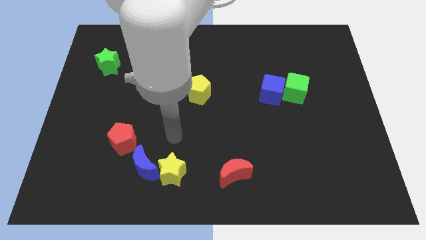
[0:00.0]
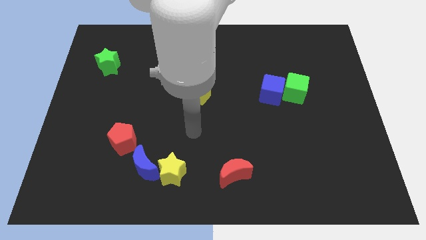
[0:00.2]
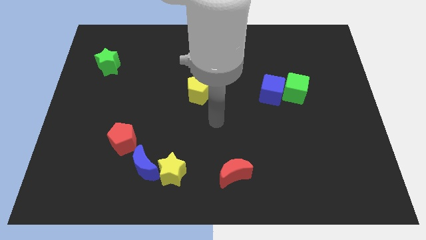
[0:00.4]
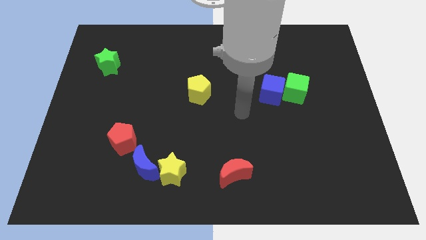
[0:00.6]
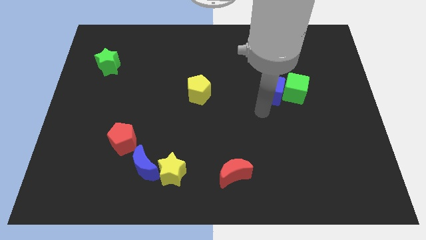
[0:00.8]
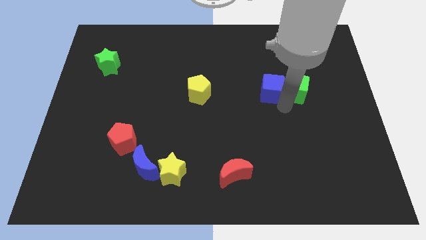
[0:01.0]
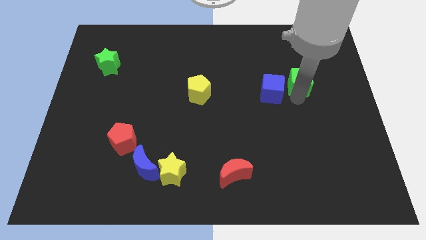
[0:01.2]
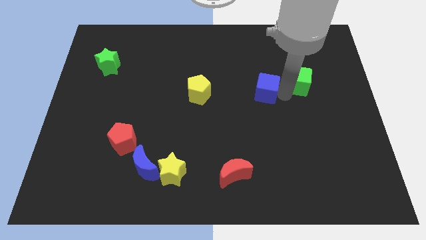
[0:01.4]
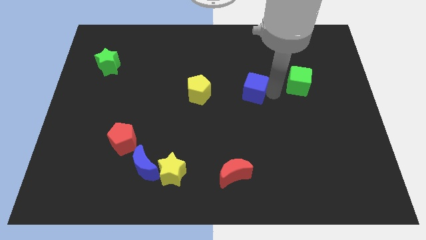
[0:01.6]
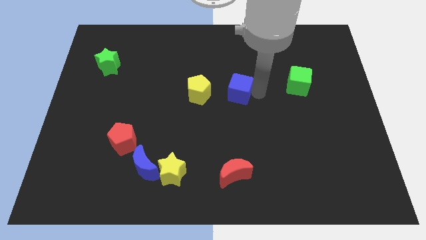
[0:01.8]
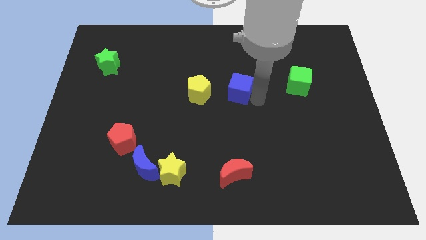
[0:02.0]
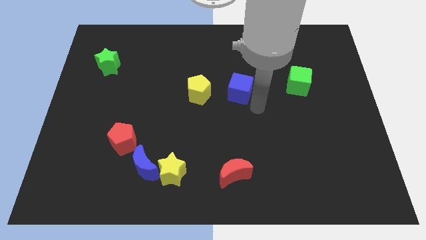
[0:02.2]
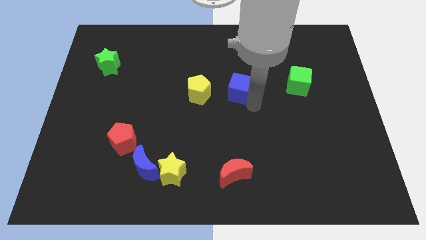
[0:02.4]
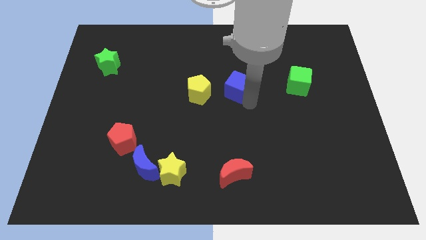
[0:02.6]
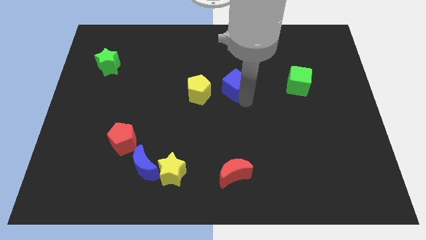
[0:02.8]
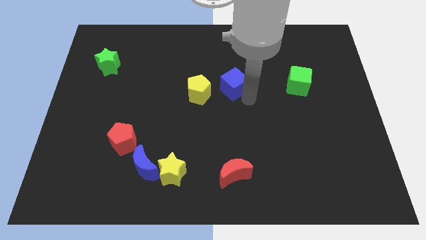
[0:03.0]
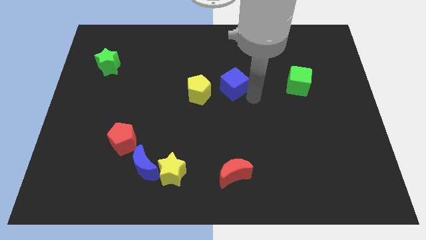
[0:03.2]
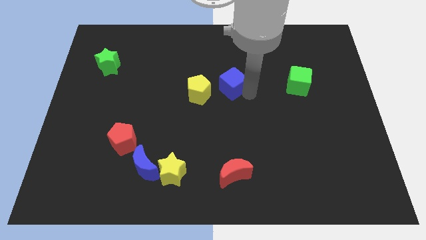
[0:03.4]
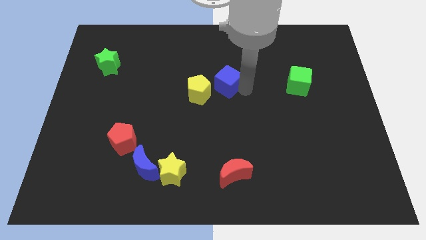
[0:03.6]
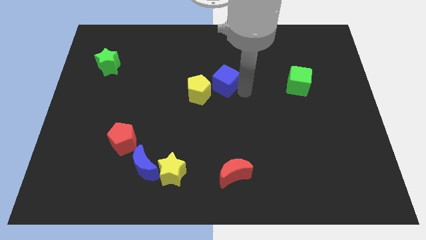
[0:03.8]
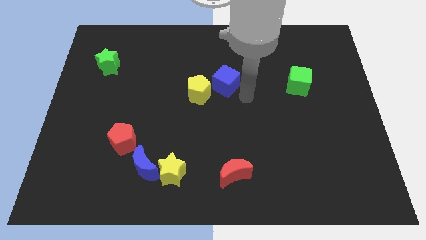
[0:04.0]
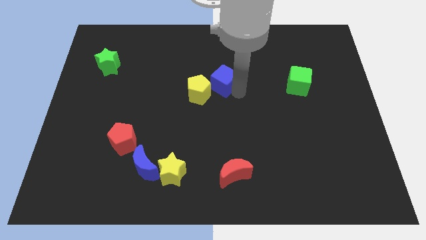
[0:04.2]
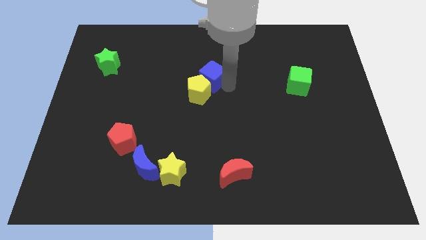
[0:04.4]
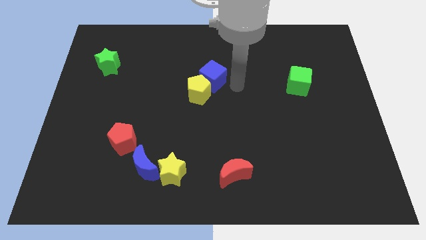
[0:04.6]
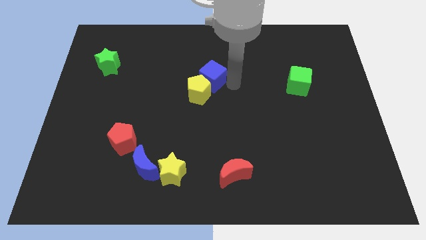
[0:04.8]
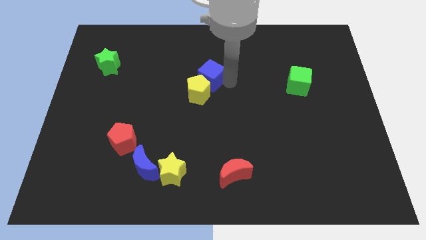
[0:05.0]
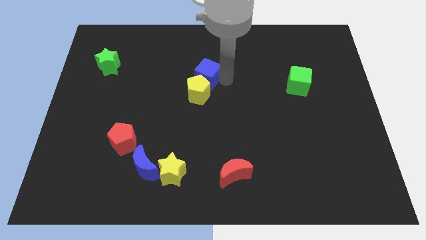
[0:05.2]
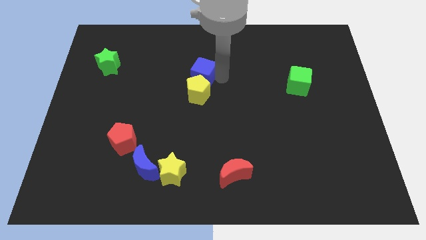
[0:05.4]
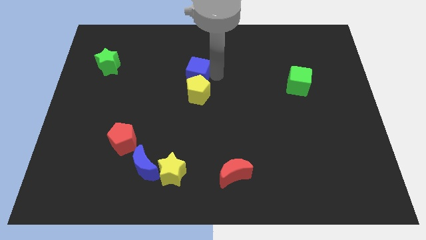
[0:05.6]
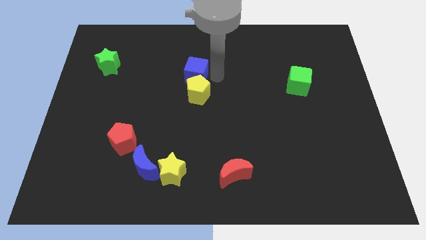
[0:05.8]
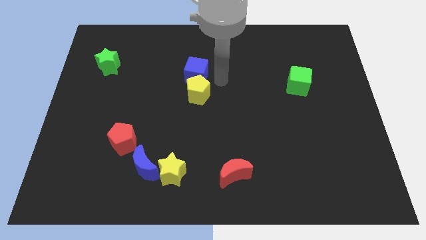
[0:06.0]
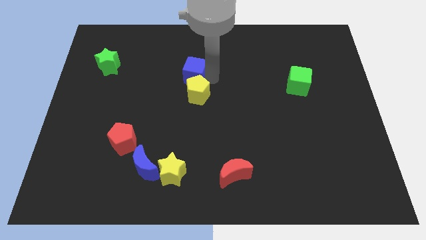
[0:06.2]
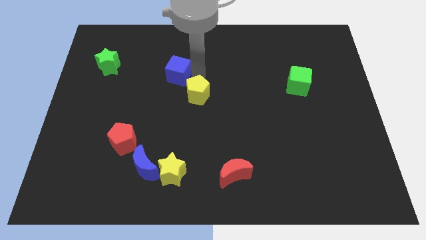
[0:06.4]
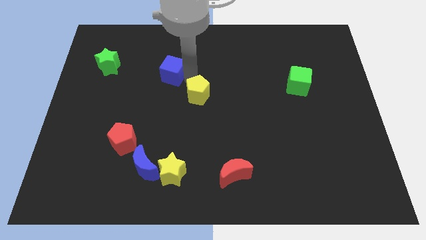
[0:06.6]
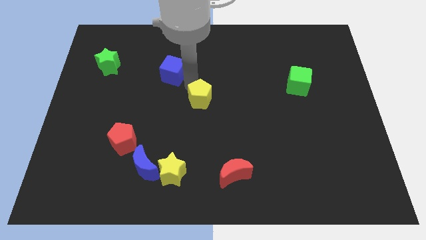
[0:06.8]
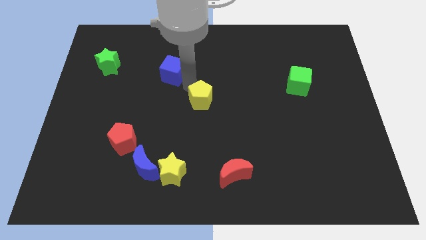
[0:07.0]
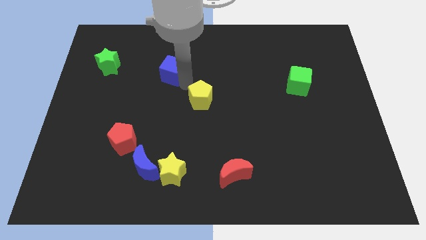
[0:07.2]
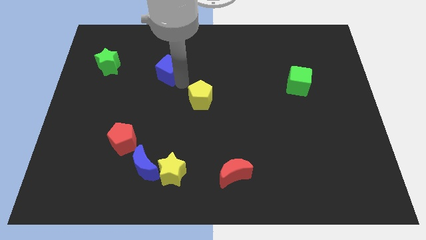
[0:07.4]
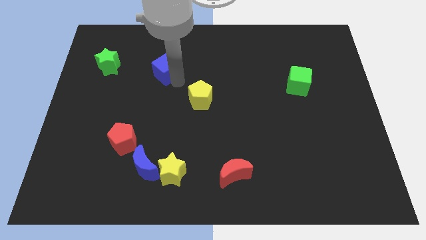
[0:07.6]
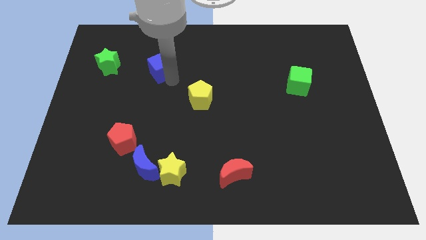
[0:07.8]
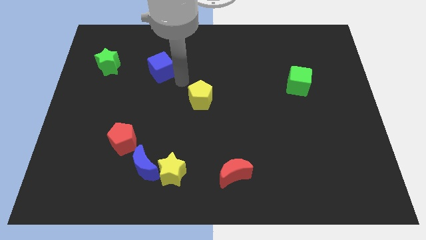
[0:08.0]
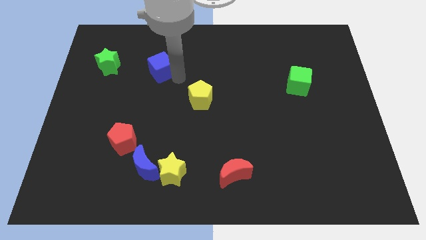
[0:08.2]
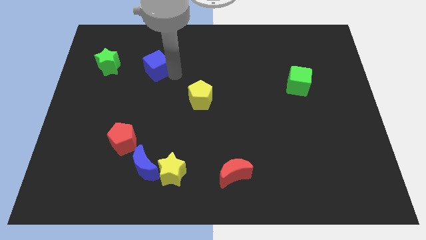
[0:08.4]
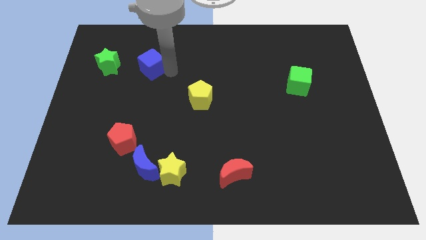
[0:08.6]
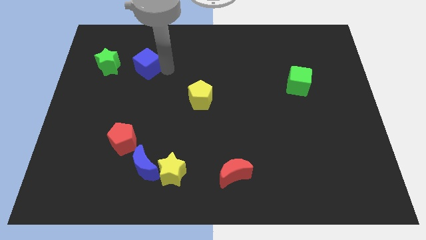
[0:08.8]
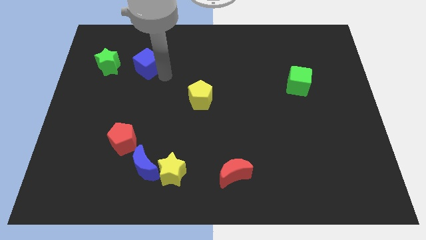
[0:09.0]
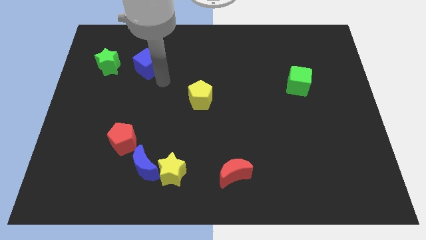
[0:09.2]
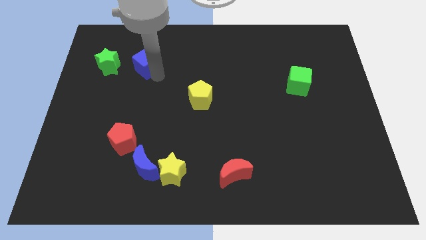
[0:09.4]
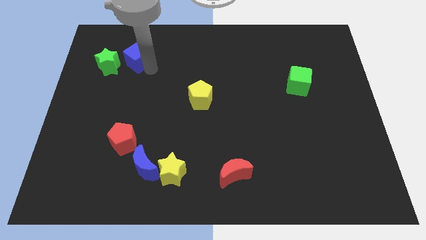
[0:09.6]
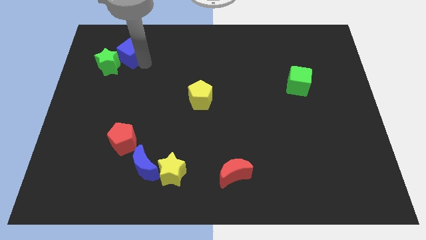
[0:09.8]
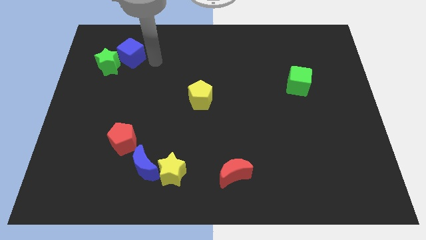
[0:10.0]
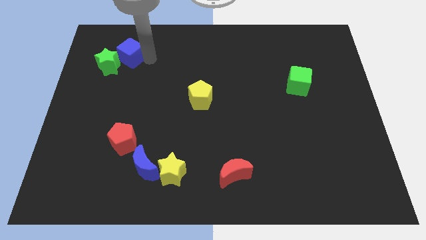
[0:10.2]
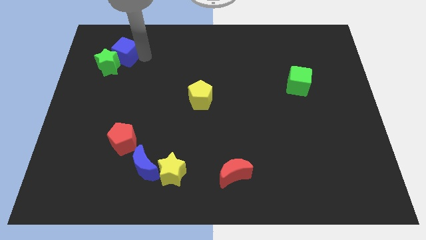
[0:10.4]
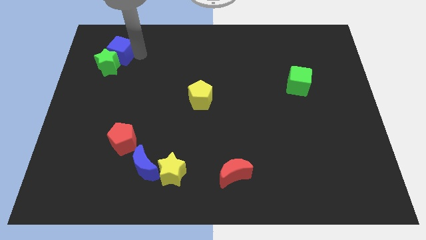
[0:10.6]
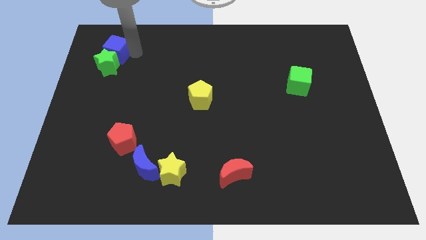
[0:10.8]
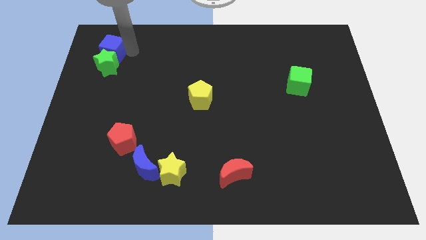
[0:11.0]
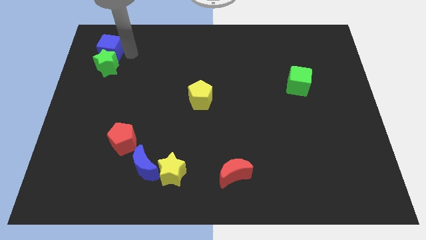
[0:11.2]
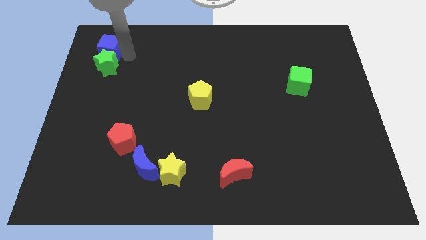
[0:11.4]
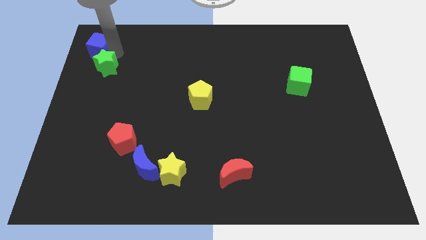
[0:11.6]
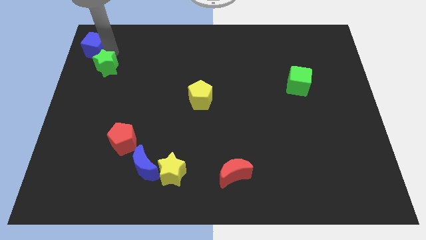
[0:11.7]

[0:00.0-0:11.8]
put the blue cube to the top left corner
